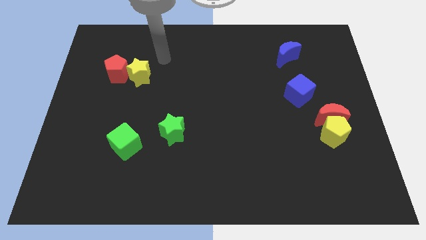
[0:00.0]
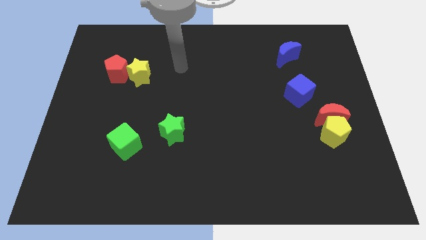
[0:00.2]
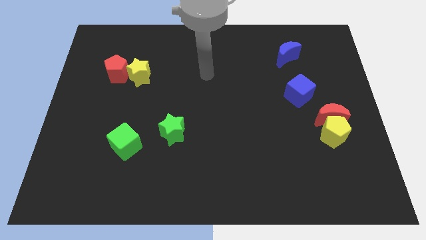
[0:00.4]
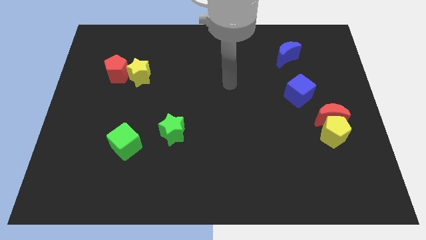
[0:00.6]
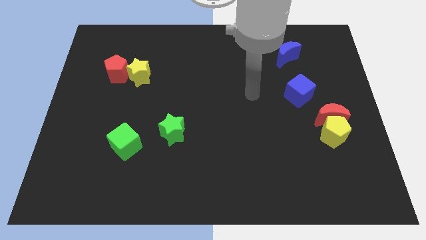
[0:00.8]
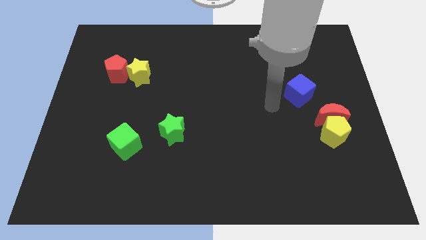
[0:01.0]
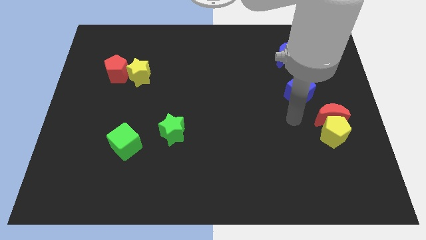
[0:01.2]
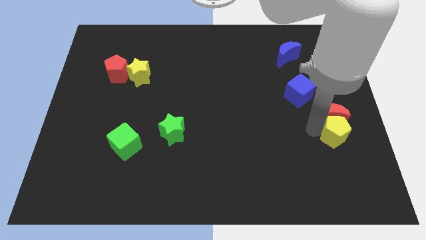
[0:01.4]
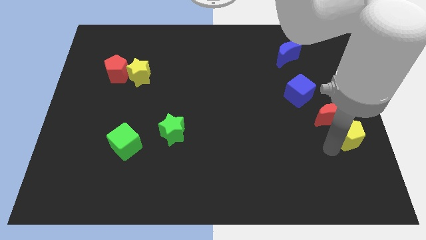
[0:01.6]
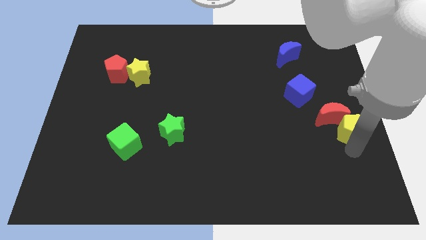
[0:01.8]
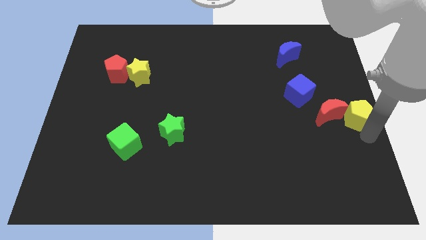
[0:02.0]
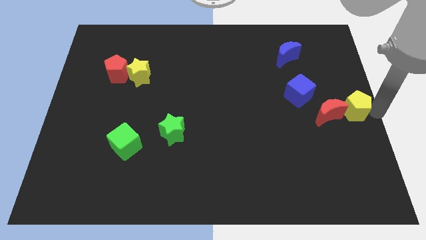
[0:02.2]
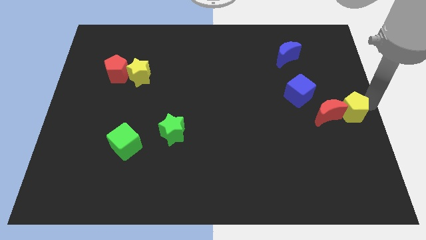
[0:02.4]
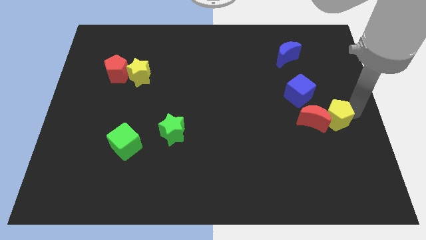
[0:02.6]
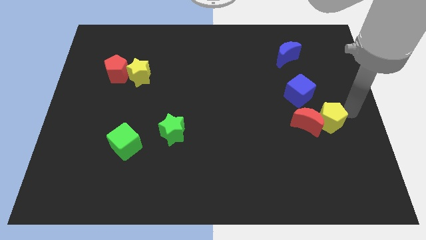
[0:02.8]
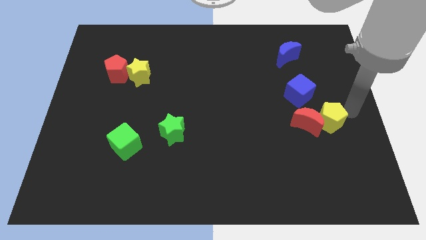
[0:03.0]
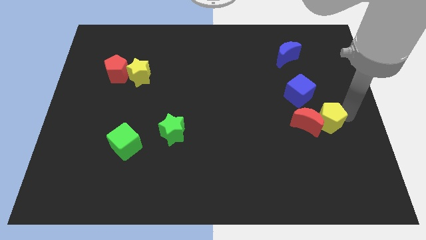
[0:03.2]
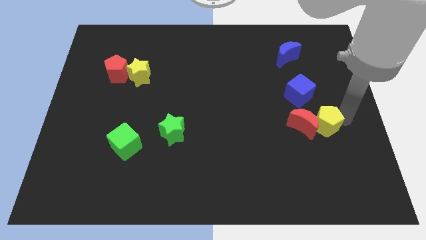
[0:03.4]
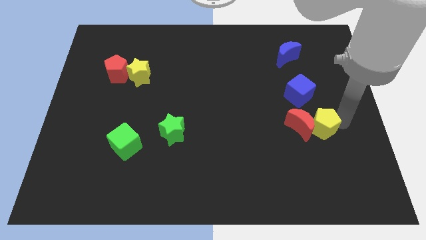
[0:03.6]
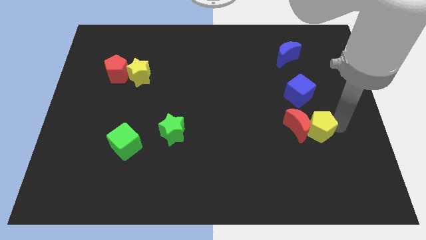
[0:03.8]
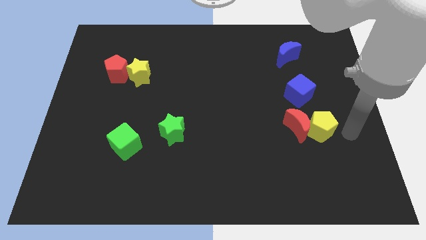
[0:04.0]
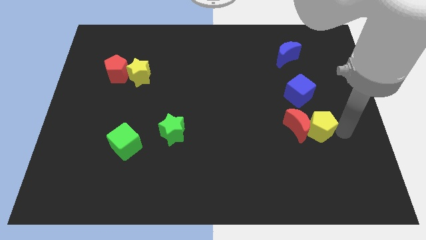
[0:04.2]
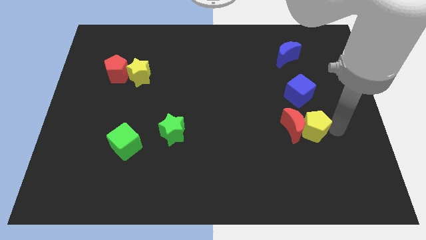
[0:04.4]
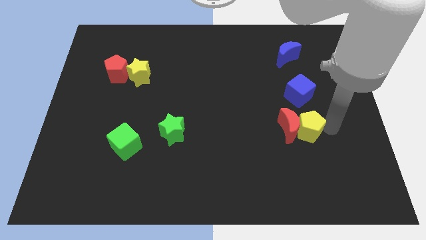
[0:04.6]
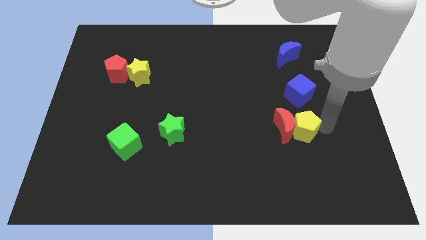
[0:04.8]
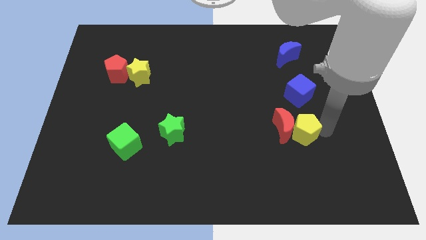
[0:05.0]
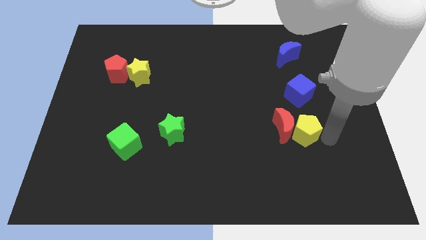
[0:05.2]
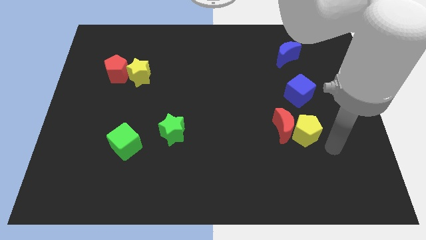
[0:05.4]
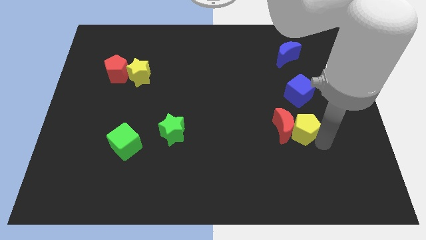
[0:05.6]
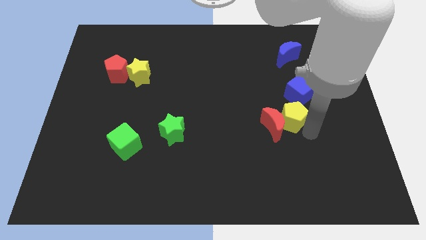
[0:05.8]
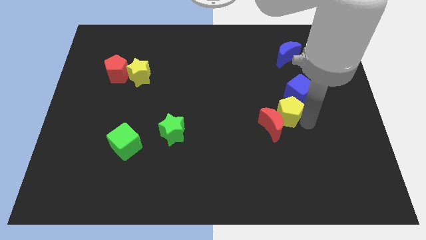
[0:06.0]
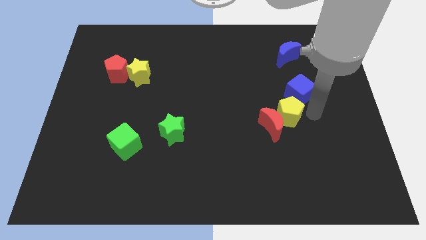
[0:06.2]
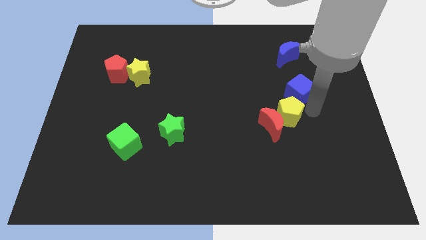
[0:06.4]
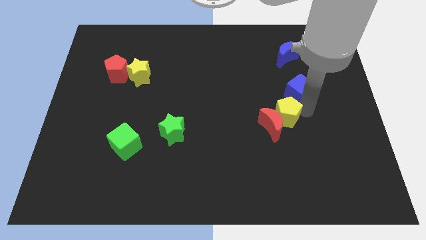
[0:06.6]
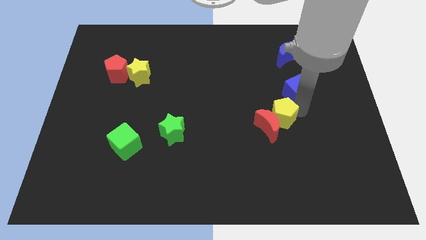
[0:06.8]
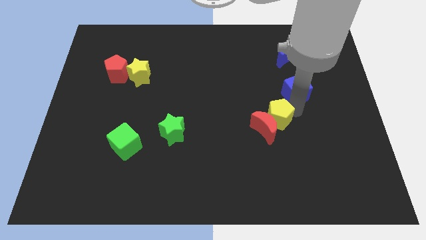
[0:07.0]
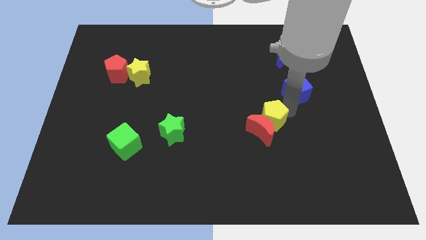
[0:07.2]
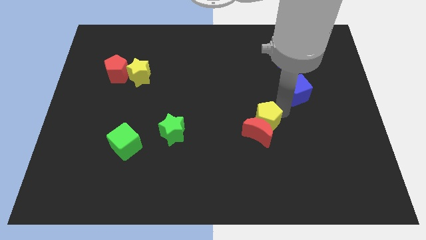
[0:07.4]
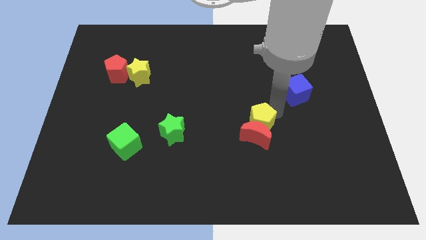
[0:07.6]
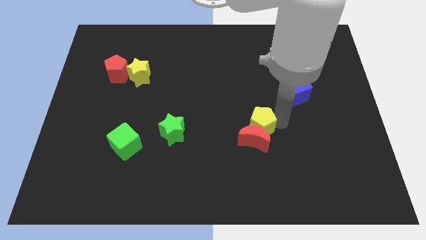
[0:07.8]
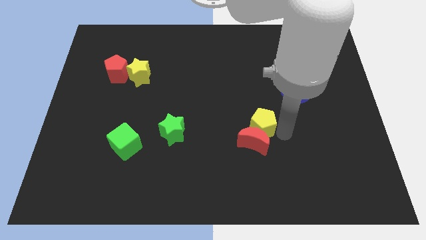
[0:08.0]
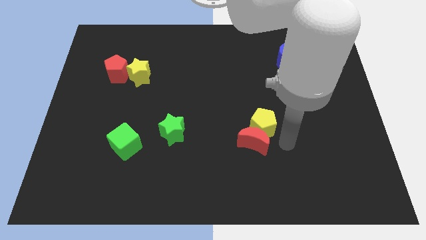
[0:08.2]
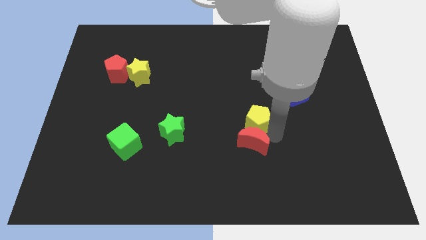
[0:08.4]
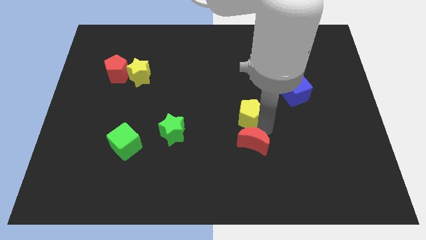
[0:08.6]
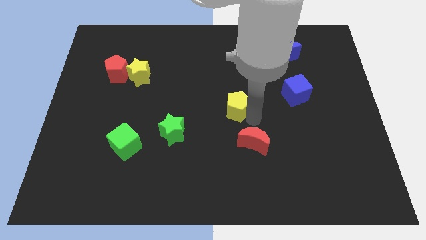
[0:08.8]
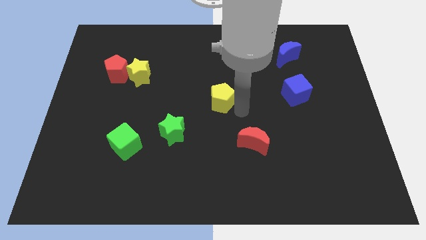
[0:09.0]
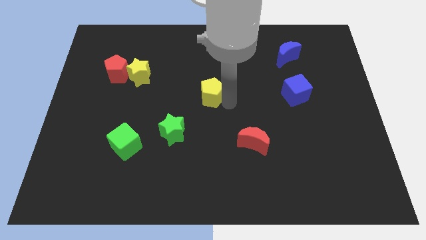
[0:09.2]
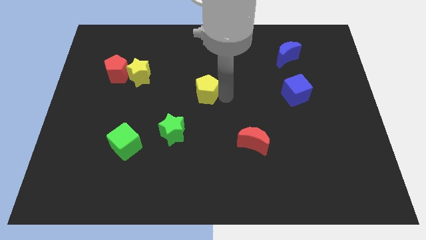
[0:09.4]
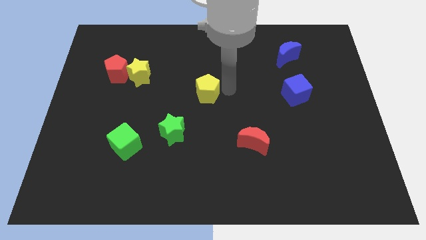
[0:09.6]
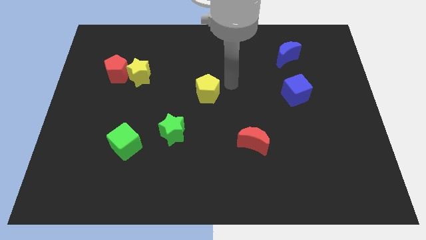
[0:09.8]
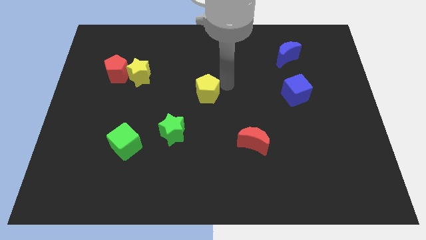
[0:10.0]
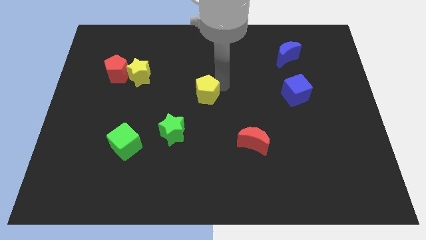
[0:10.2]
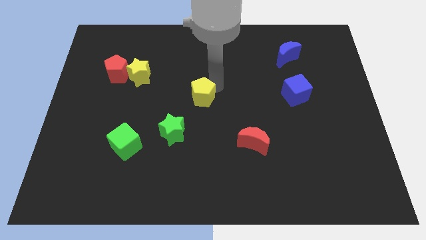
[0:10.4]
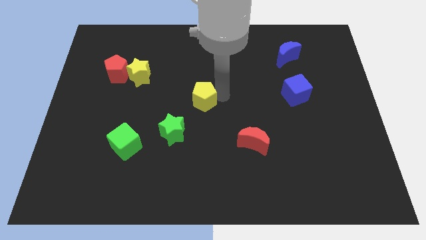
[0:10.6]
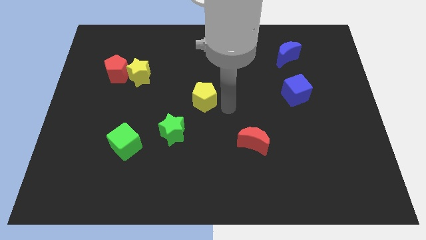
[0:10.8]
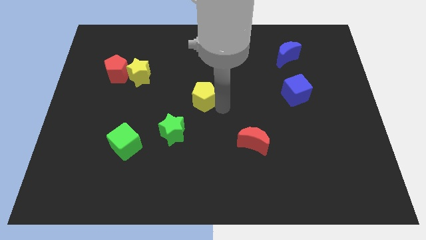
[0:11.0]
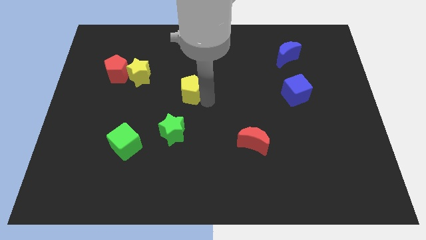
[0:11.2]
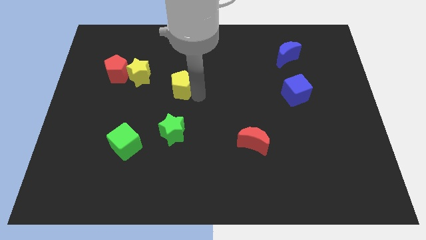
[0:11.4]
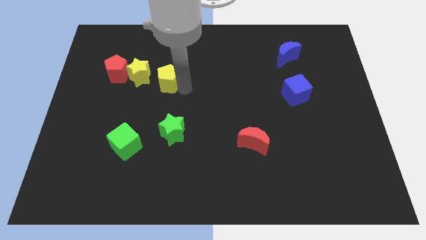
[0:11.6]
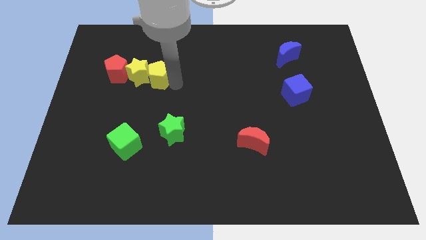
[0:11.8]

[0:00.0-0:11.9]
push the yellow pentagon close to the yellow star

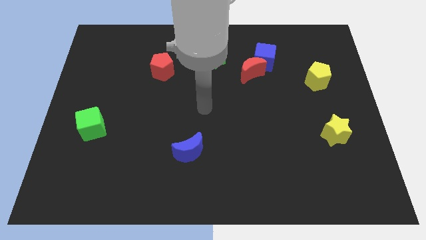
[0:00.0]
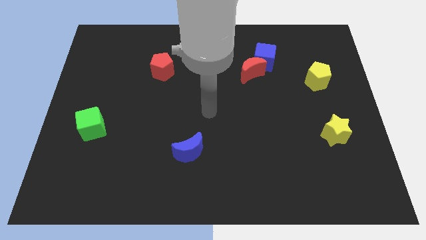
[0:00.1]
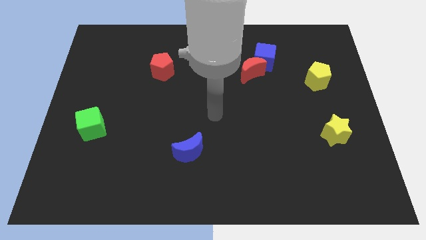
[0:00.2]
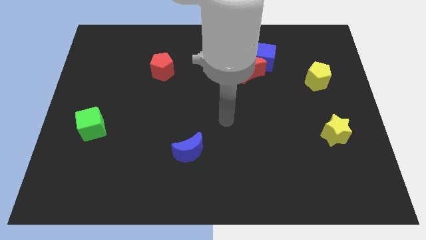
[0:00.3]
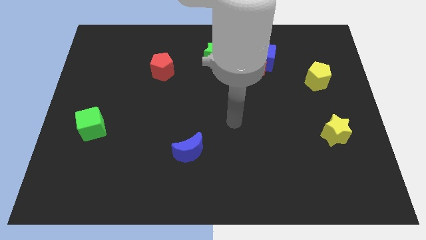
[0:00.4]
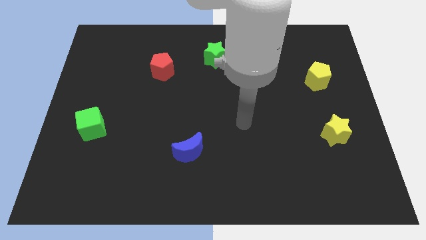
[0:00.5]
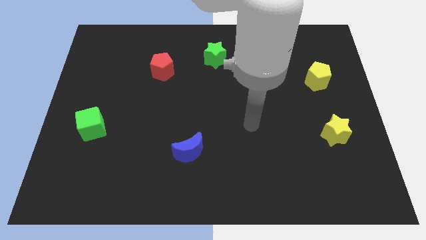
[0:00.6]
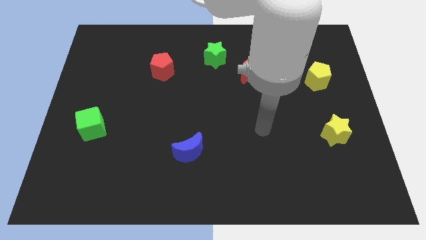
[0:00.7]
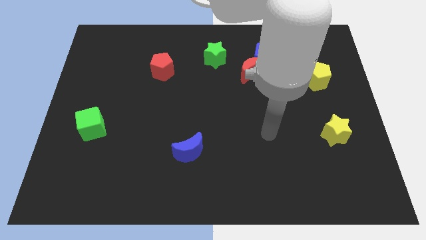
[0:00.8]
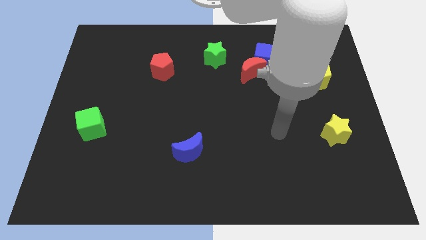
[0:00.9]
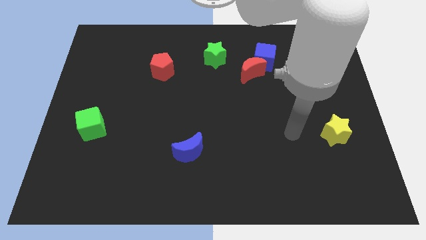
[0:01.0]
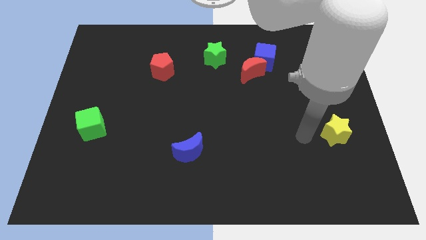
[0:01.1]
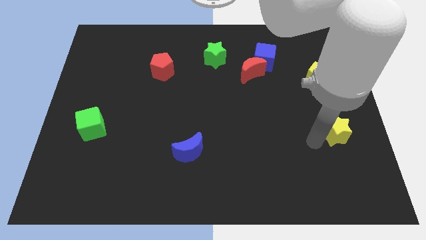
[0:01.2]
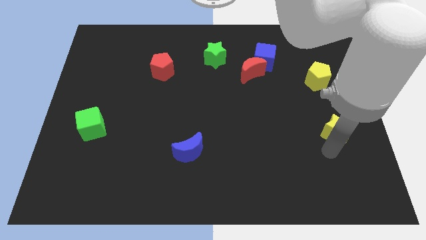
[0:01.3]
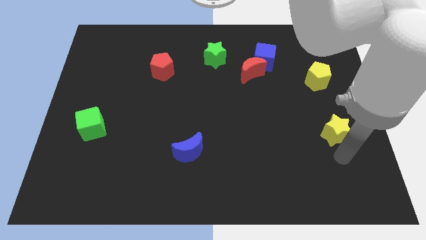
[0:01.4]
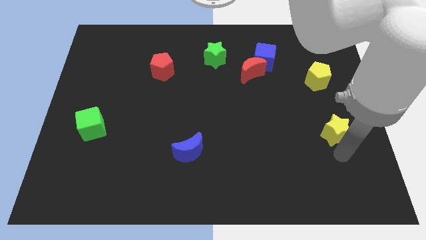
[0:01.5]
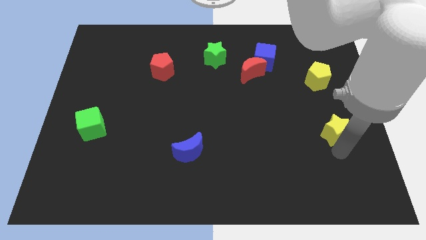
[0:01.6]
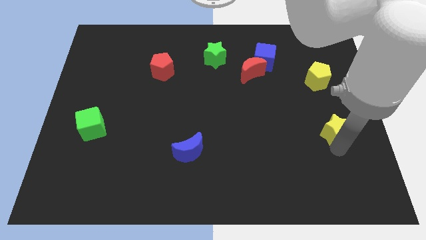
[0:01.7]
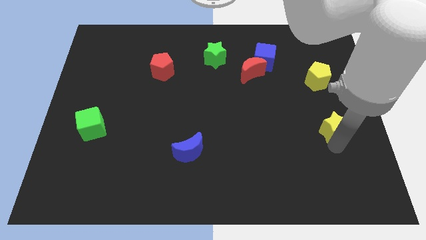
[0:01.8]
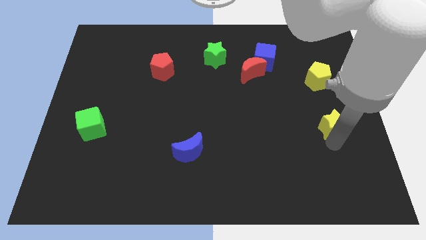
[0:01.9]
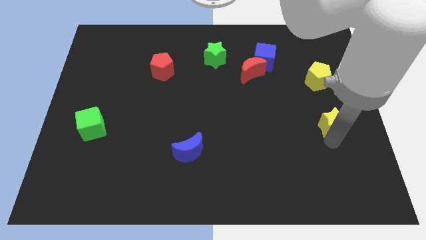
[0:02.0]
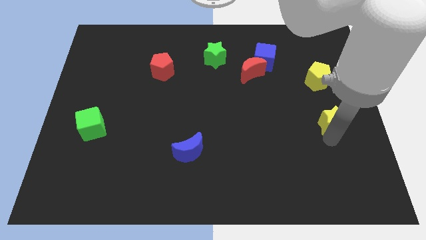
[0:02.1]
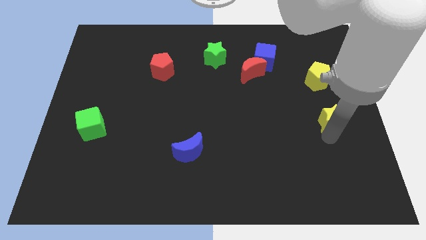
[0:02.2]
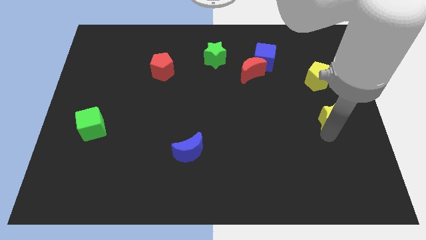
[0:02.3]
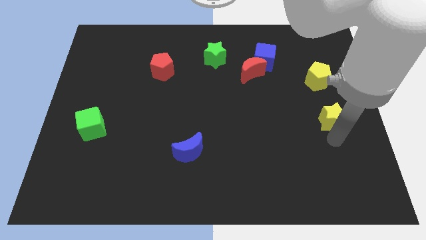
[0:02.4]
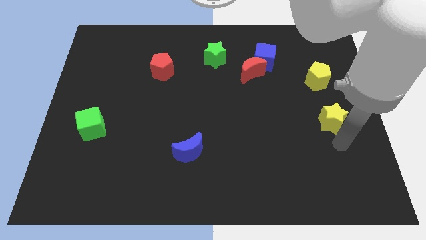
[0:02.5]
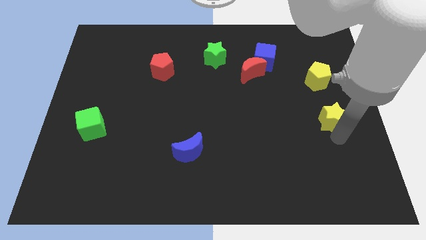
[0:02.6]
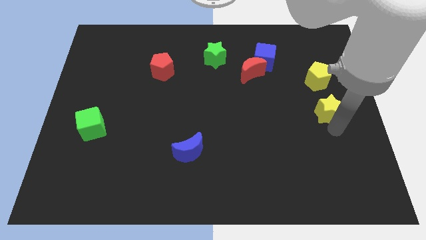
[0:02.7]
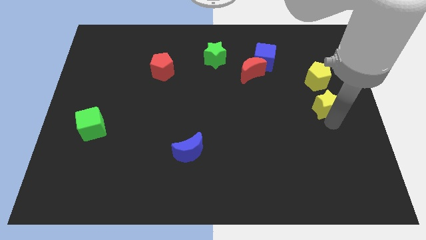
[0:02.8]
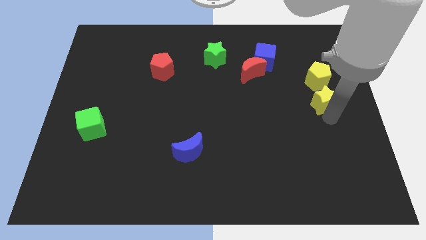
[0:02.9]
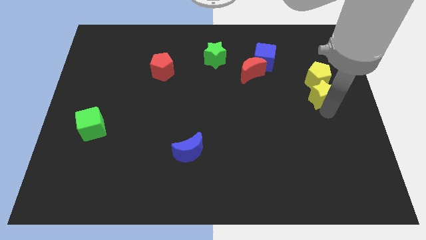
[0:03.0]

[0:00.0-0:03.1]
slide the yellow star to the yellow pentagon
